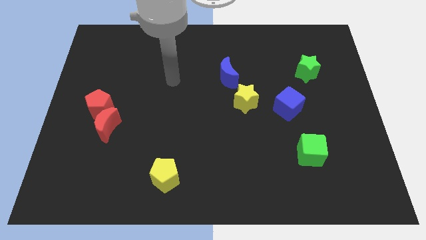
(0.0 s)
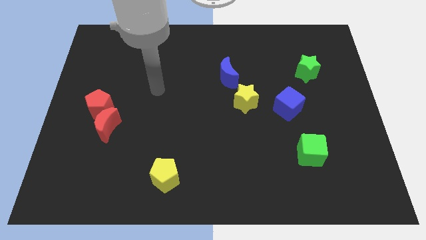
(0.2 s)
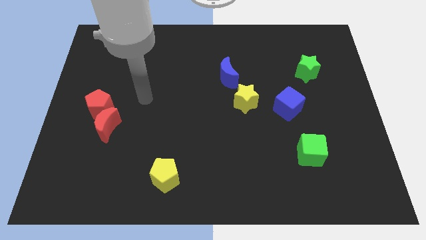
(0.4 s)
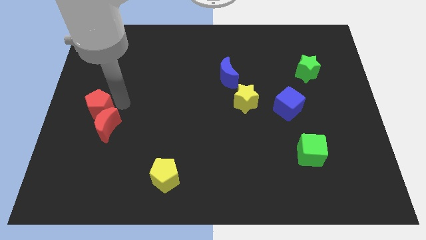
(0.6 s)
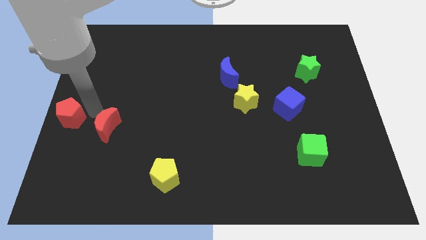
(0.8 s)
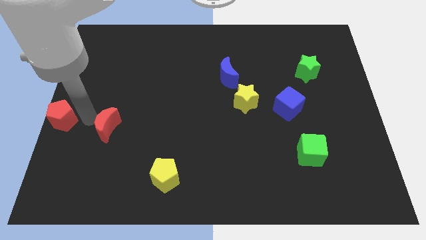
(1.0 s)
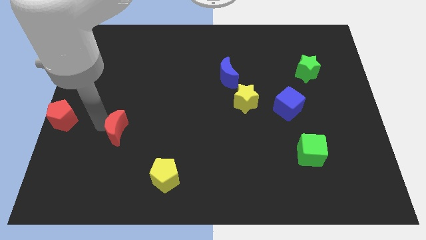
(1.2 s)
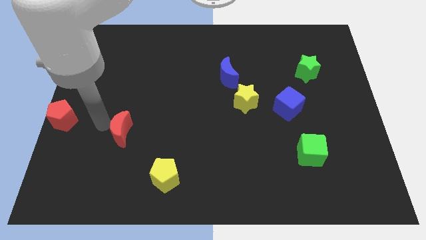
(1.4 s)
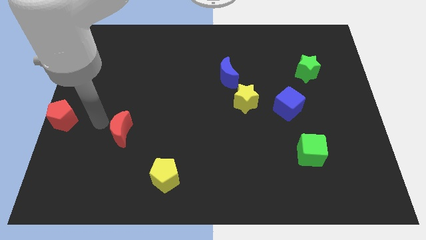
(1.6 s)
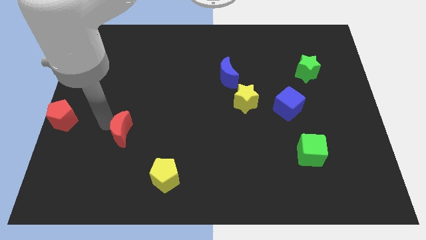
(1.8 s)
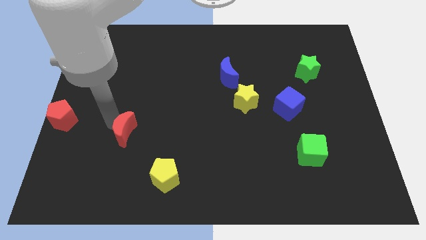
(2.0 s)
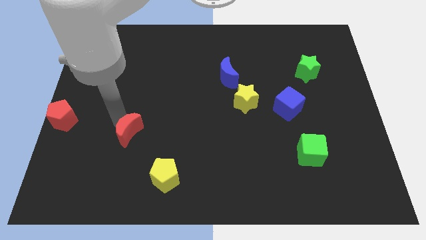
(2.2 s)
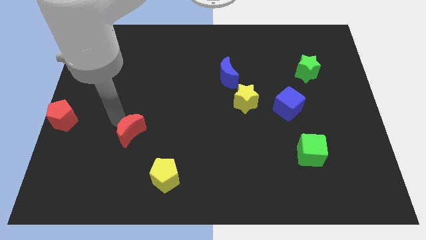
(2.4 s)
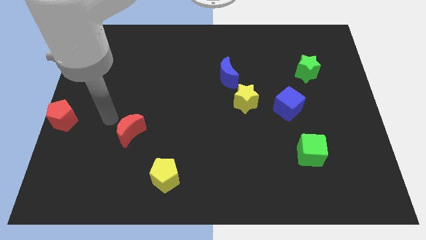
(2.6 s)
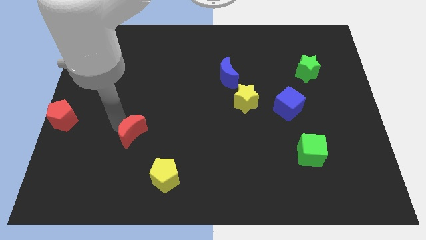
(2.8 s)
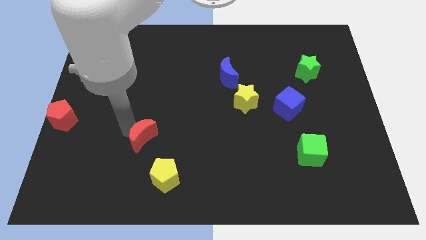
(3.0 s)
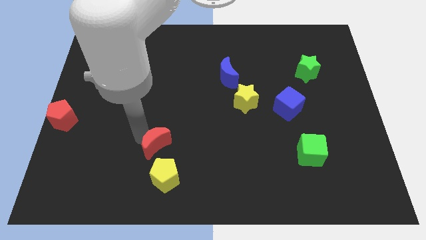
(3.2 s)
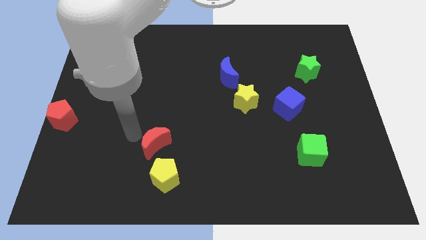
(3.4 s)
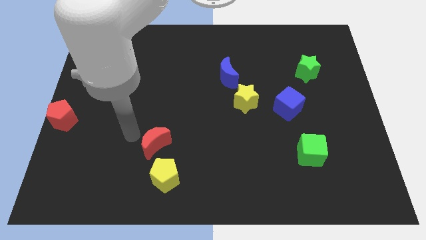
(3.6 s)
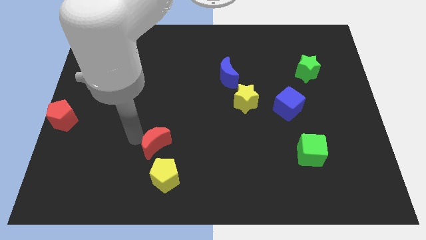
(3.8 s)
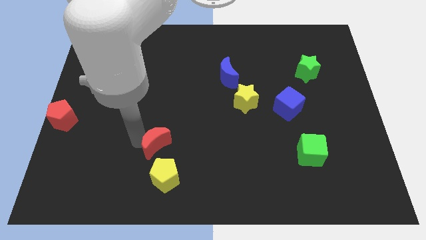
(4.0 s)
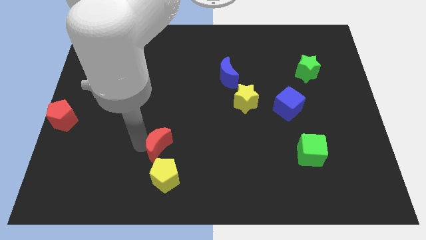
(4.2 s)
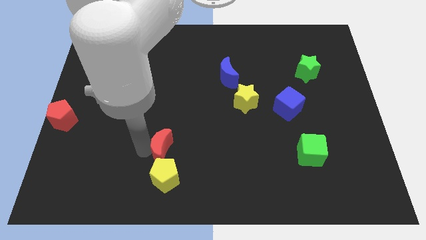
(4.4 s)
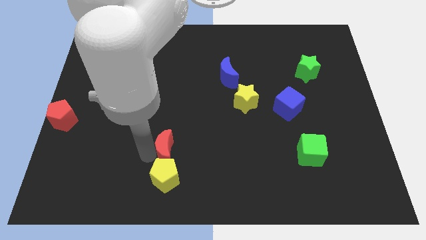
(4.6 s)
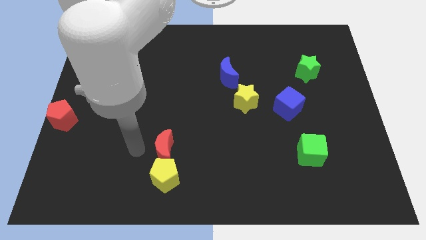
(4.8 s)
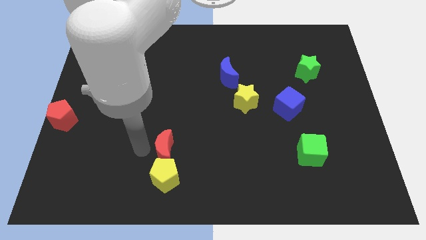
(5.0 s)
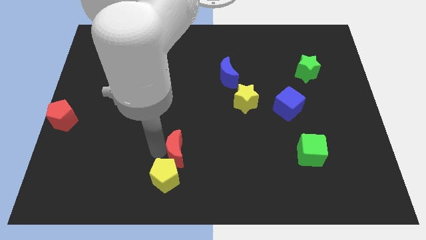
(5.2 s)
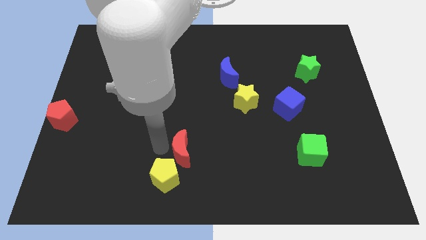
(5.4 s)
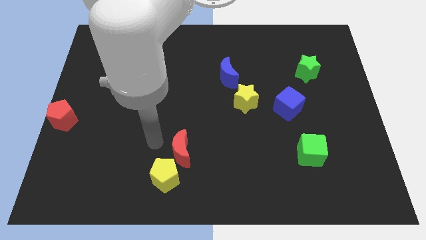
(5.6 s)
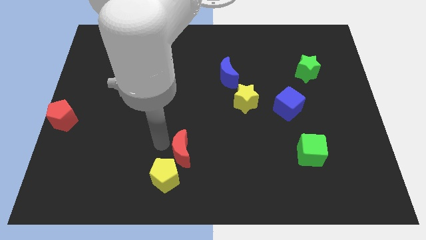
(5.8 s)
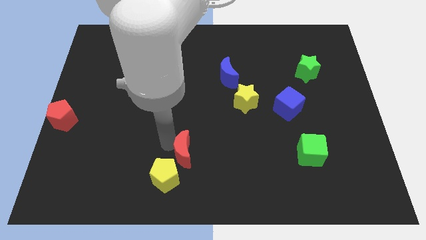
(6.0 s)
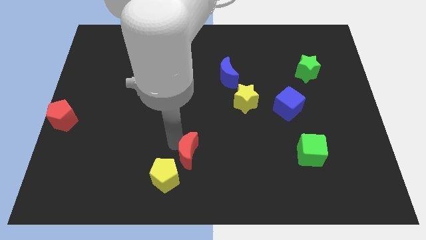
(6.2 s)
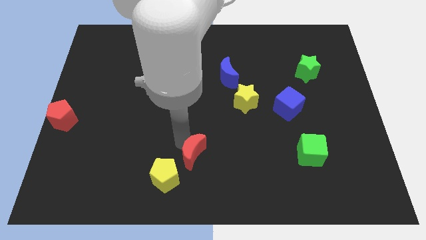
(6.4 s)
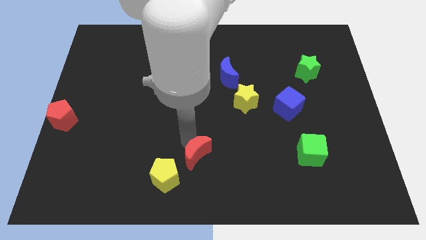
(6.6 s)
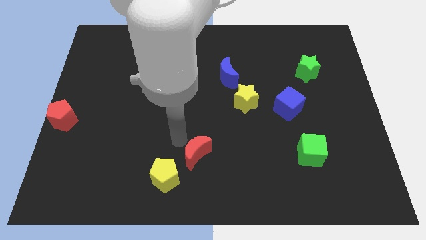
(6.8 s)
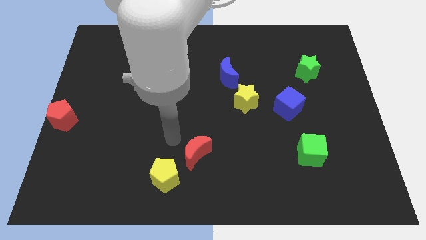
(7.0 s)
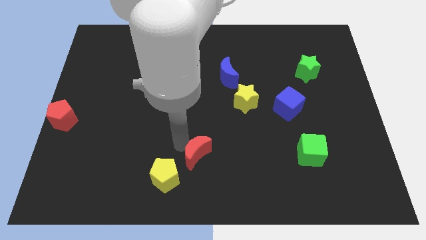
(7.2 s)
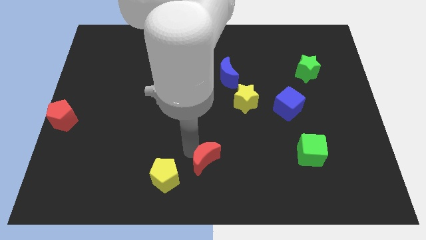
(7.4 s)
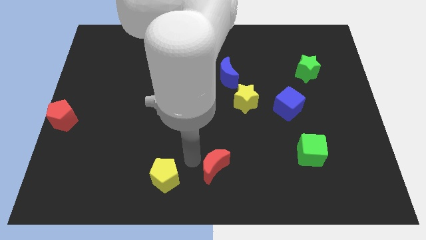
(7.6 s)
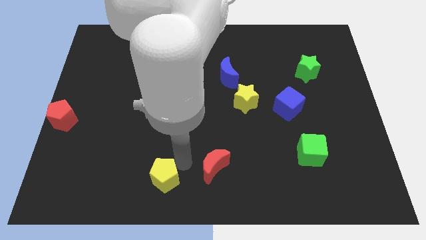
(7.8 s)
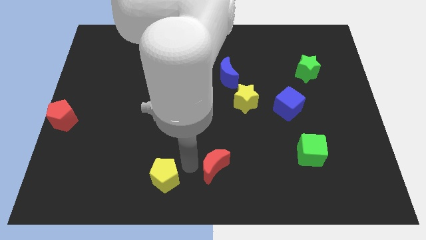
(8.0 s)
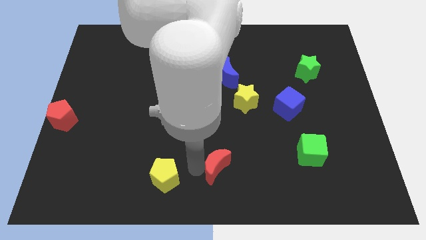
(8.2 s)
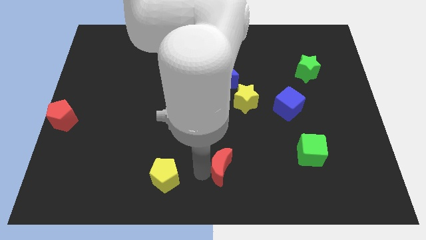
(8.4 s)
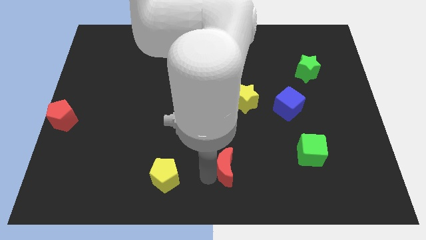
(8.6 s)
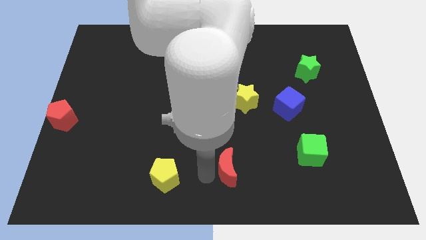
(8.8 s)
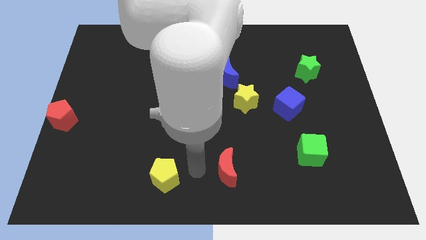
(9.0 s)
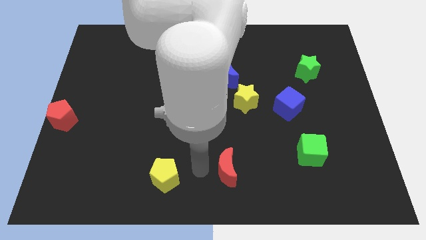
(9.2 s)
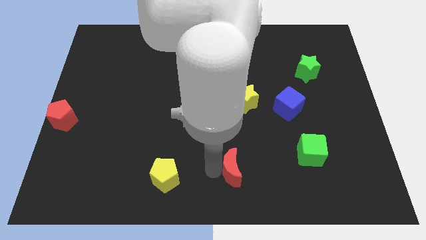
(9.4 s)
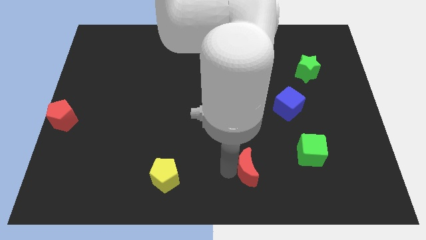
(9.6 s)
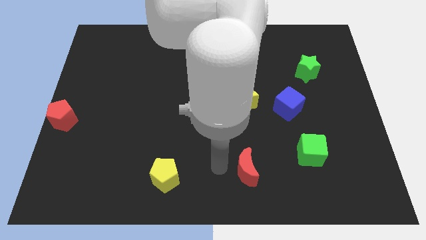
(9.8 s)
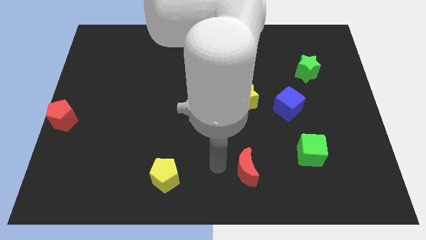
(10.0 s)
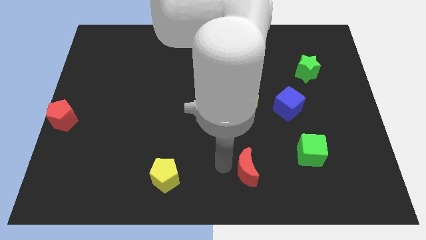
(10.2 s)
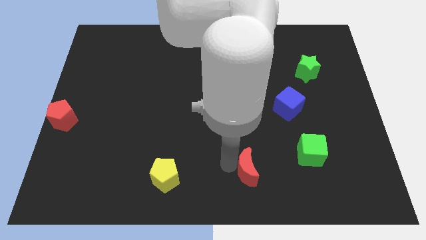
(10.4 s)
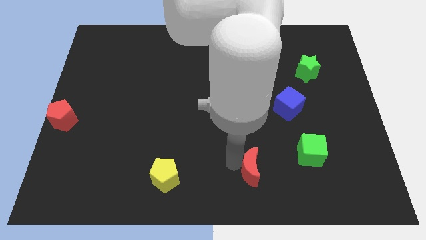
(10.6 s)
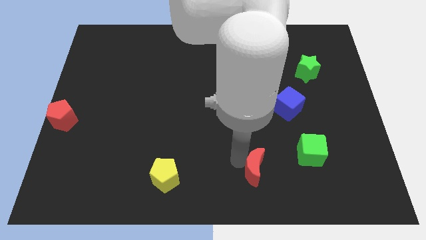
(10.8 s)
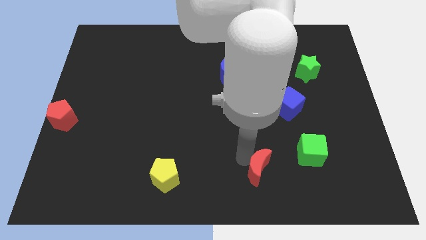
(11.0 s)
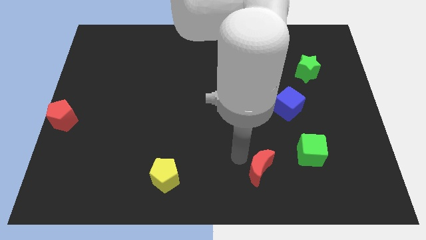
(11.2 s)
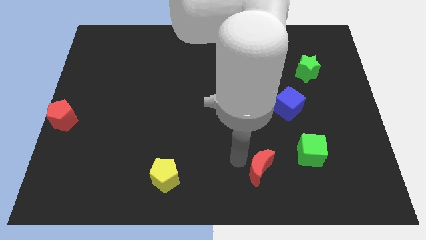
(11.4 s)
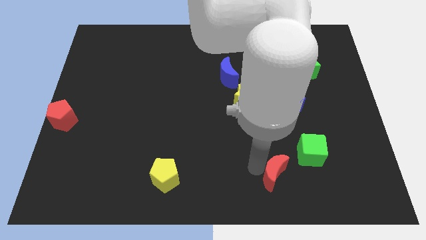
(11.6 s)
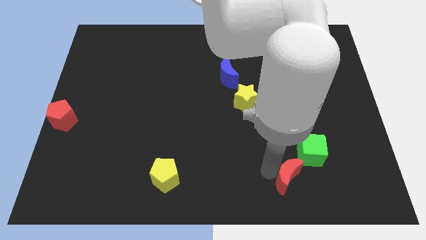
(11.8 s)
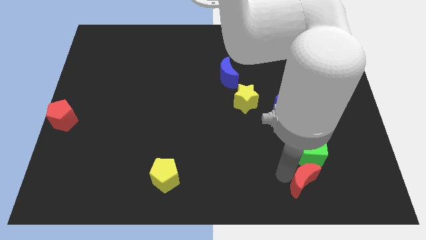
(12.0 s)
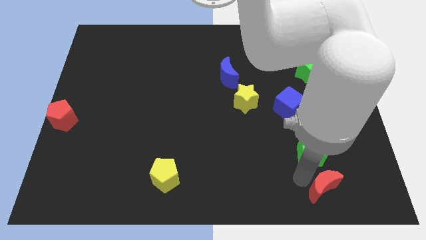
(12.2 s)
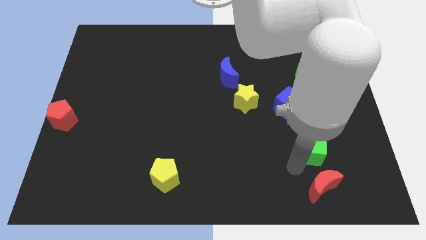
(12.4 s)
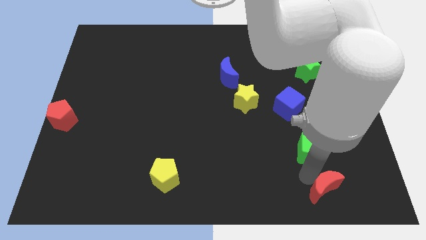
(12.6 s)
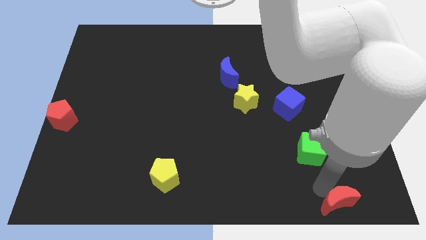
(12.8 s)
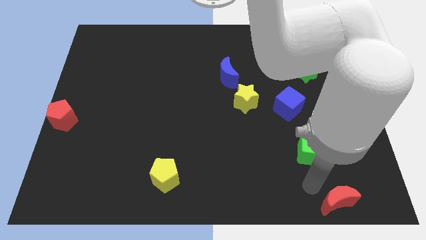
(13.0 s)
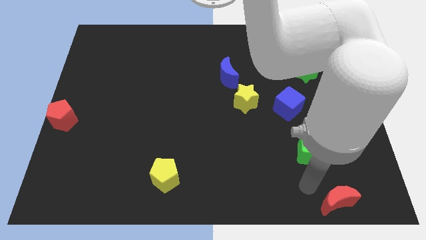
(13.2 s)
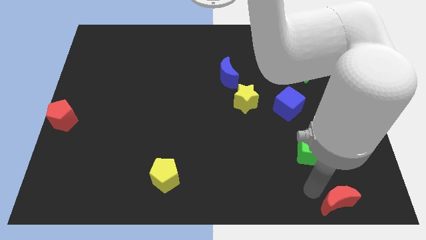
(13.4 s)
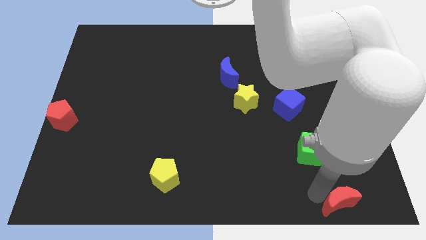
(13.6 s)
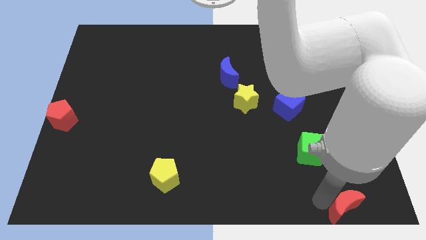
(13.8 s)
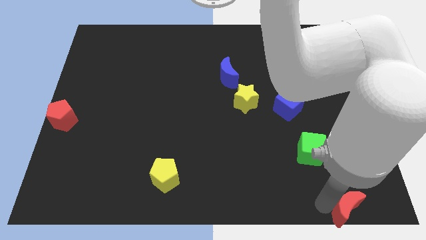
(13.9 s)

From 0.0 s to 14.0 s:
slide the red moon to the bottom right of the board
